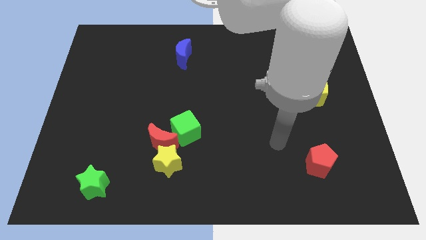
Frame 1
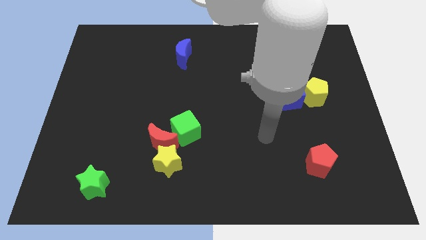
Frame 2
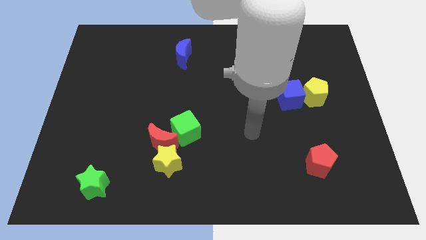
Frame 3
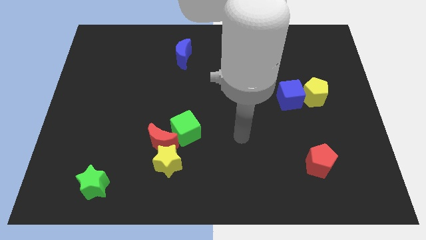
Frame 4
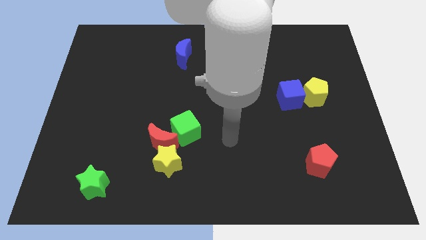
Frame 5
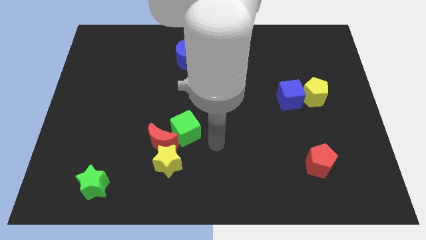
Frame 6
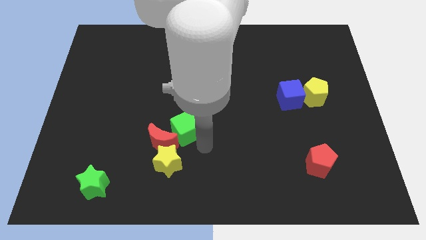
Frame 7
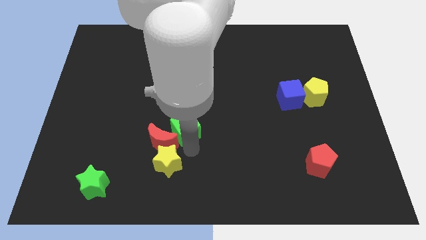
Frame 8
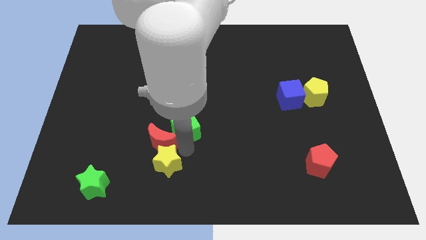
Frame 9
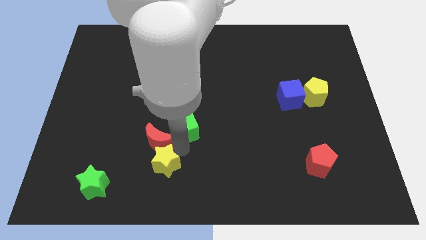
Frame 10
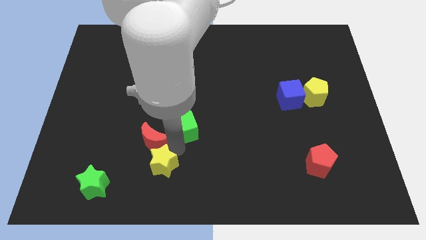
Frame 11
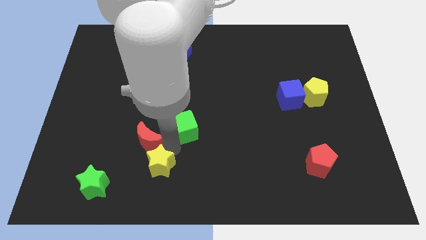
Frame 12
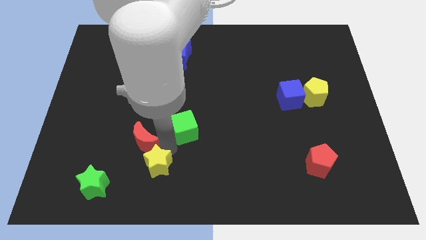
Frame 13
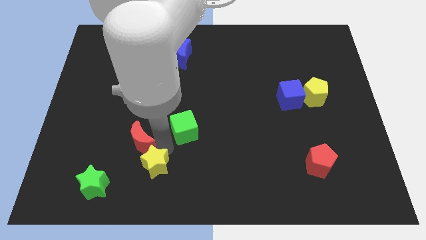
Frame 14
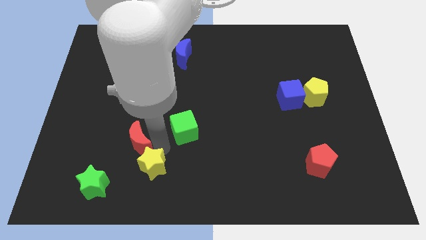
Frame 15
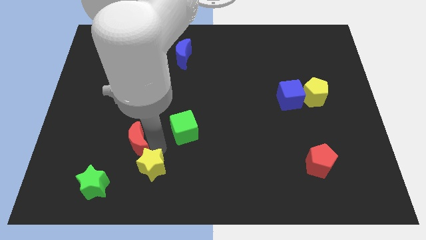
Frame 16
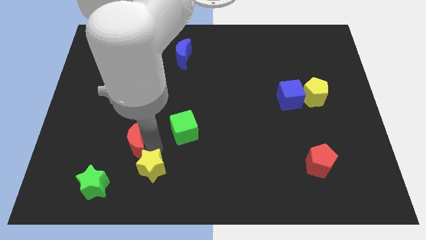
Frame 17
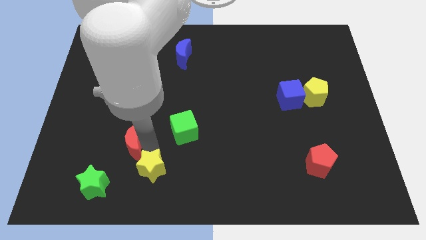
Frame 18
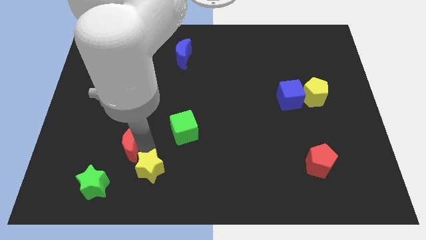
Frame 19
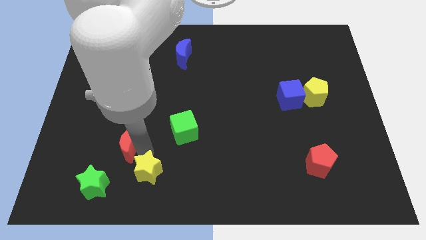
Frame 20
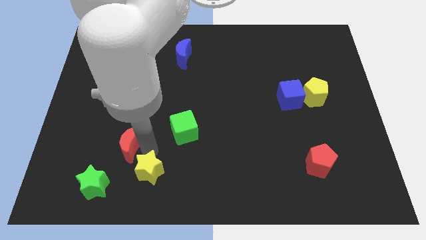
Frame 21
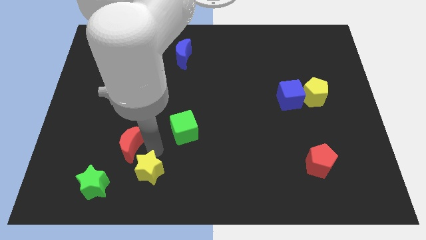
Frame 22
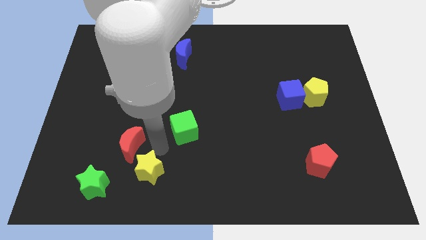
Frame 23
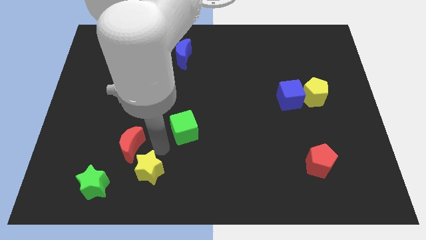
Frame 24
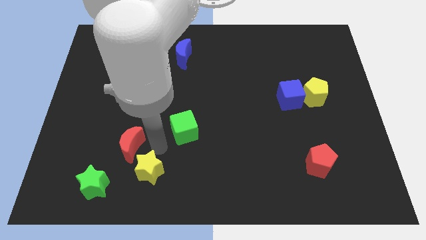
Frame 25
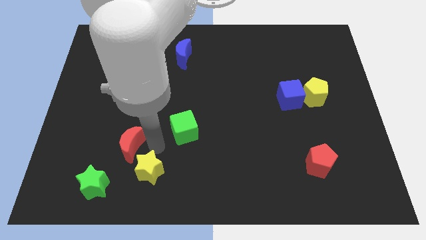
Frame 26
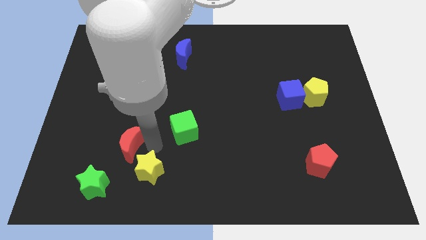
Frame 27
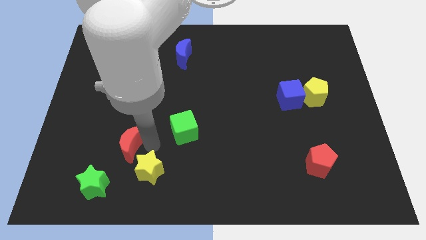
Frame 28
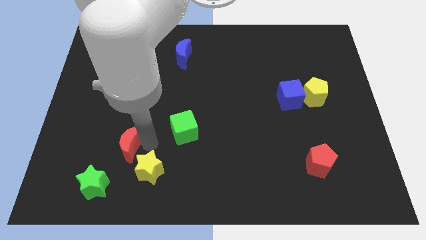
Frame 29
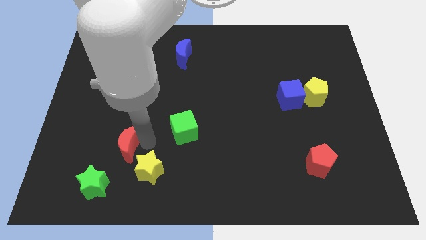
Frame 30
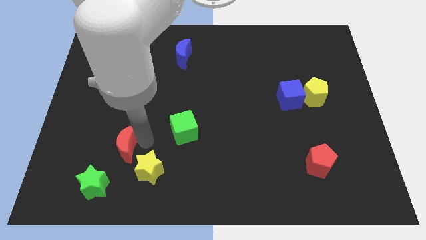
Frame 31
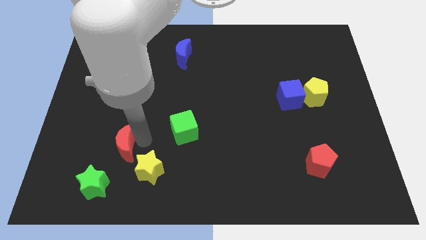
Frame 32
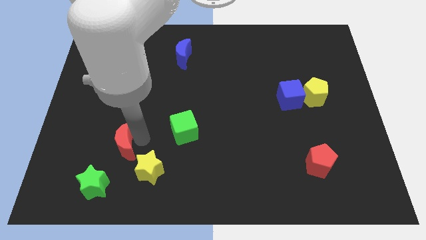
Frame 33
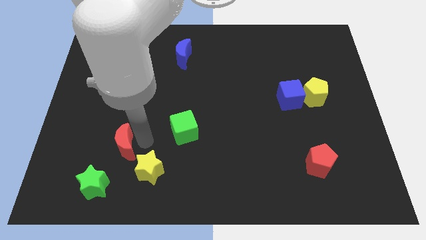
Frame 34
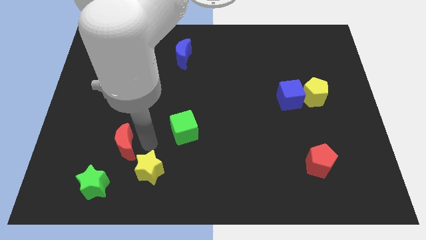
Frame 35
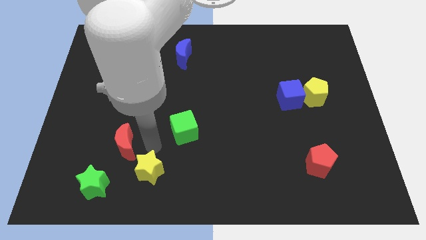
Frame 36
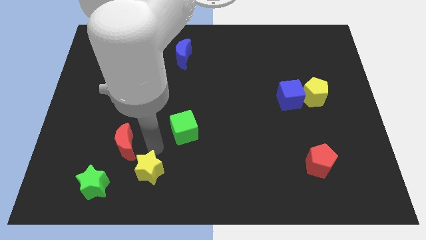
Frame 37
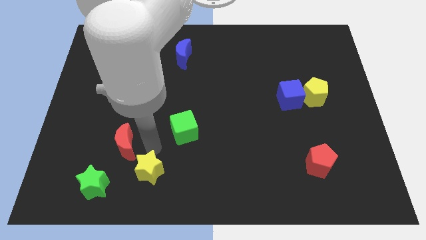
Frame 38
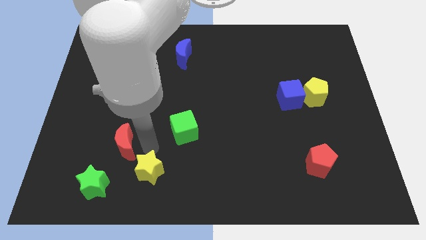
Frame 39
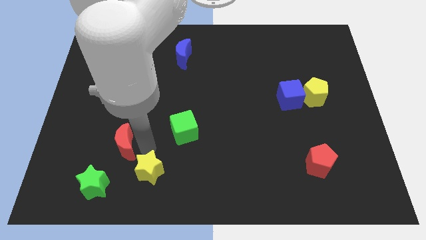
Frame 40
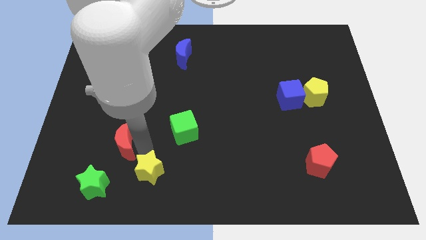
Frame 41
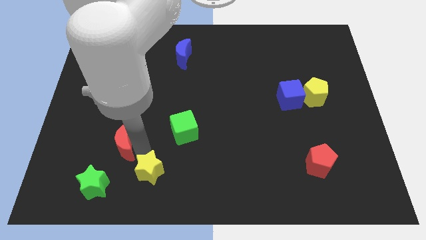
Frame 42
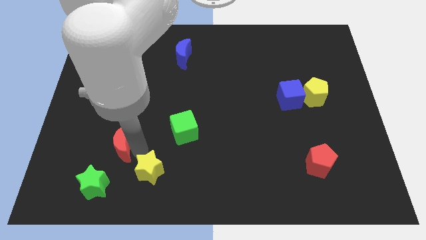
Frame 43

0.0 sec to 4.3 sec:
separate the red moon from the yellow star and green cube

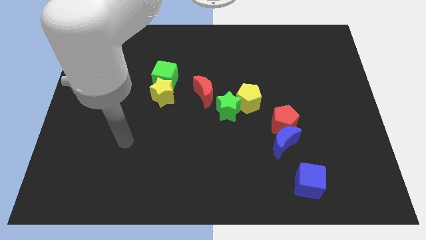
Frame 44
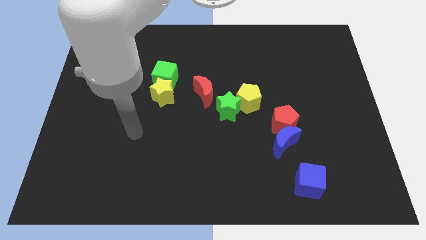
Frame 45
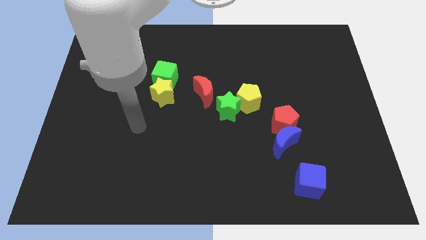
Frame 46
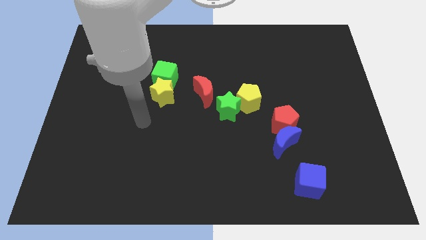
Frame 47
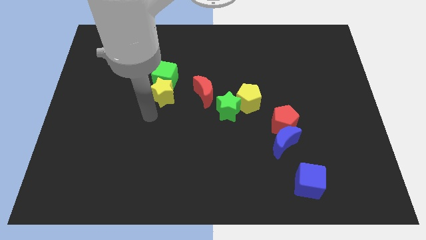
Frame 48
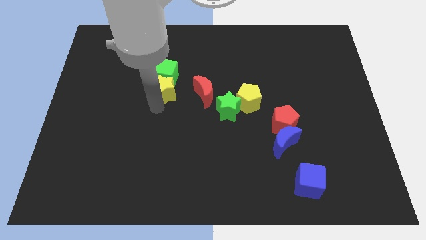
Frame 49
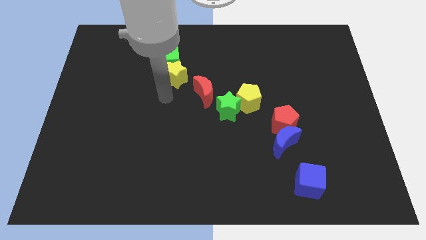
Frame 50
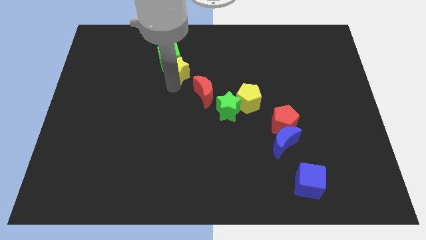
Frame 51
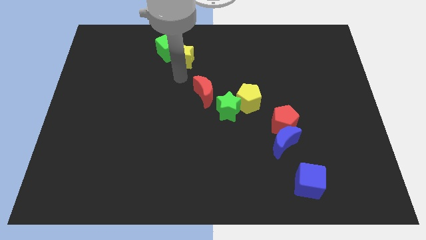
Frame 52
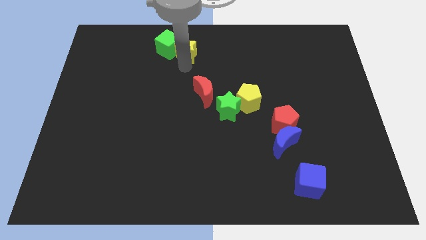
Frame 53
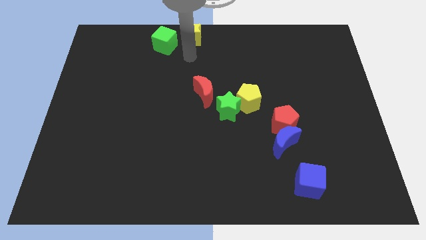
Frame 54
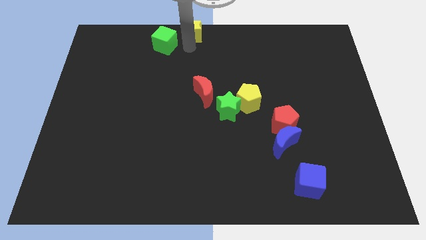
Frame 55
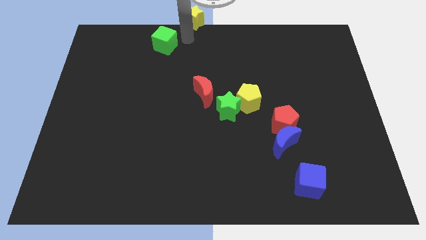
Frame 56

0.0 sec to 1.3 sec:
pull the green cube apart from the yellow star

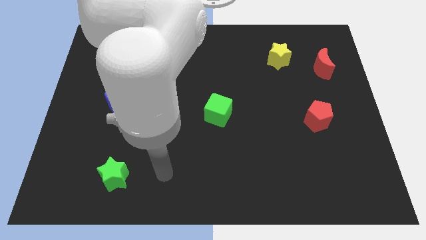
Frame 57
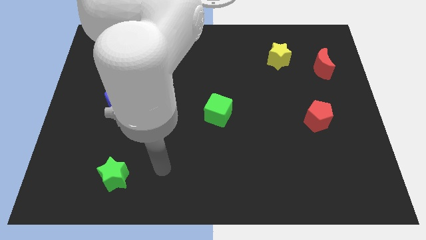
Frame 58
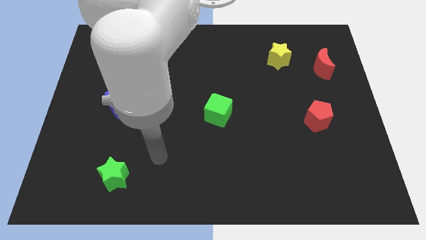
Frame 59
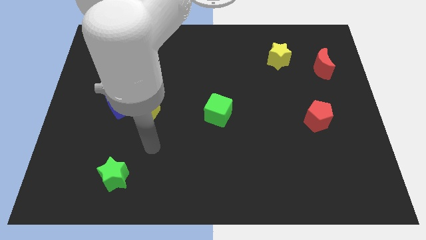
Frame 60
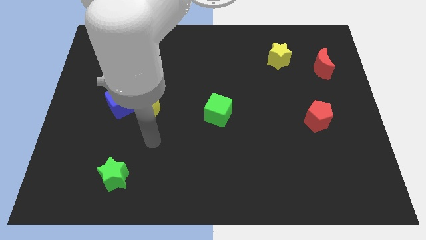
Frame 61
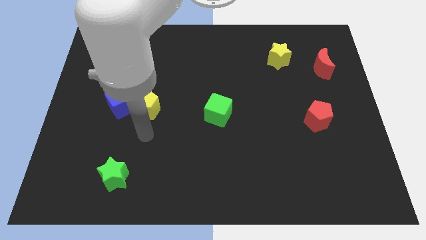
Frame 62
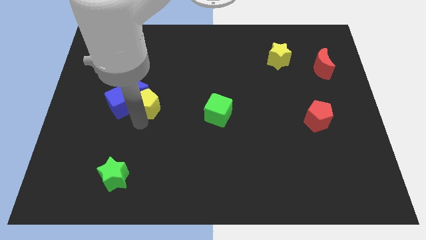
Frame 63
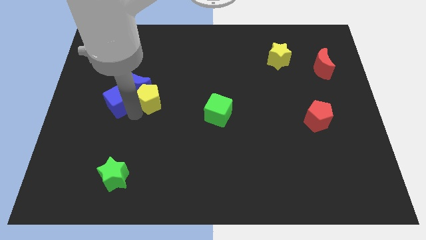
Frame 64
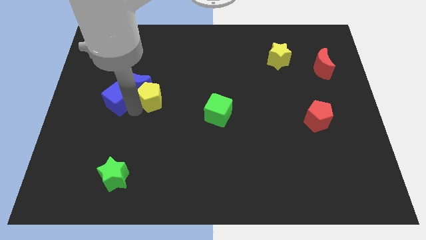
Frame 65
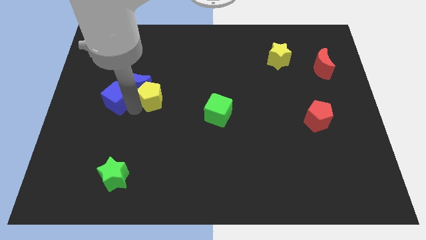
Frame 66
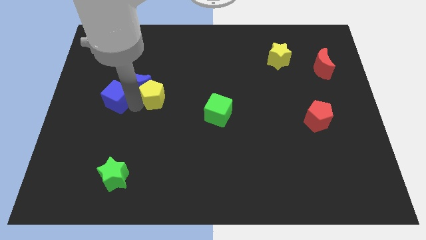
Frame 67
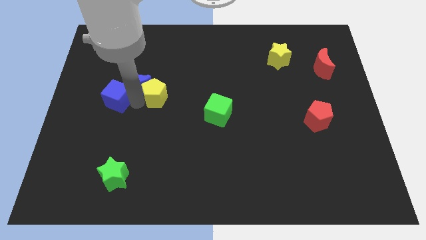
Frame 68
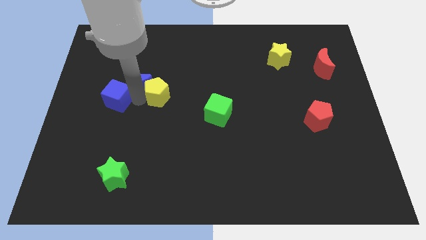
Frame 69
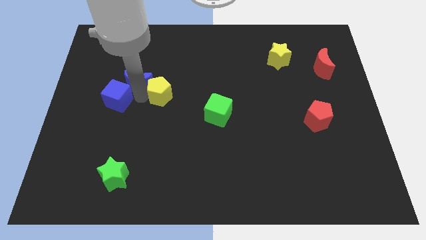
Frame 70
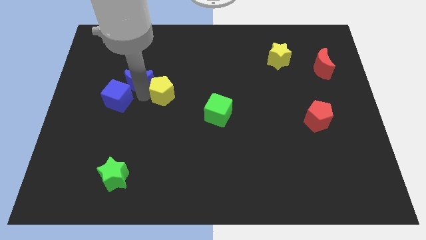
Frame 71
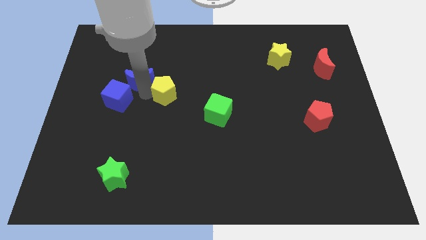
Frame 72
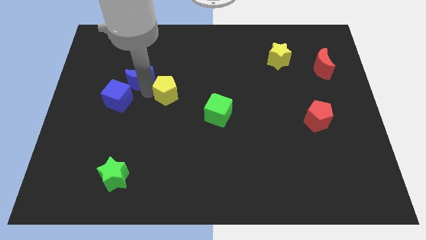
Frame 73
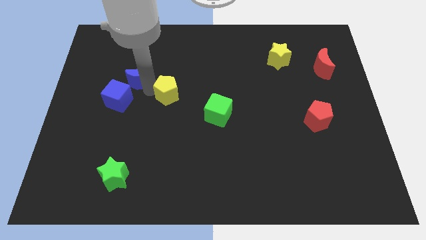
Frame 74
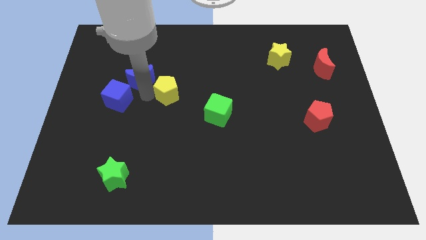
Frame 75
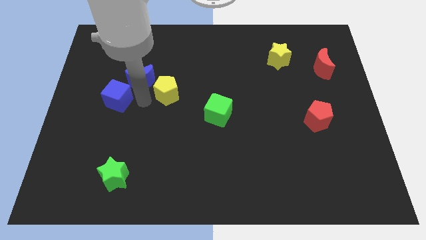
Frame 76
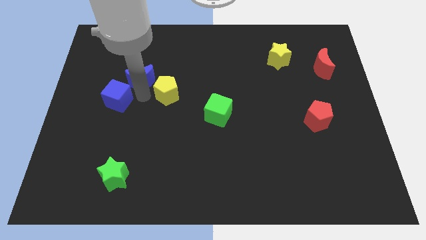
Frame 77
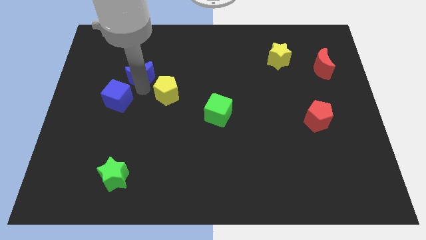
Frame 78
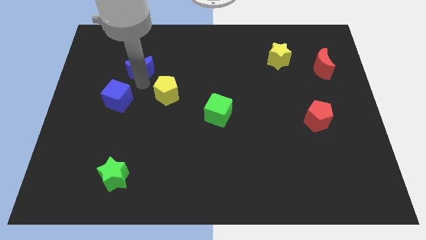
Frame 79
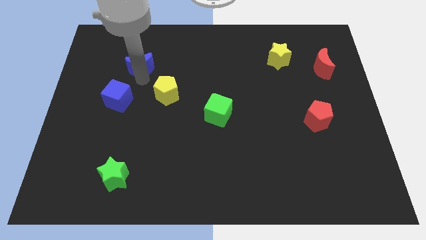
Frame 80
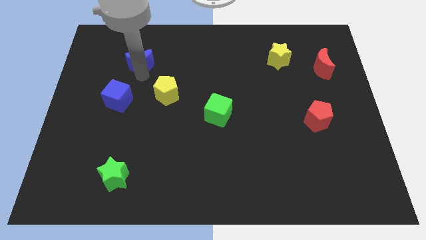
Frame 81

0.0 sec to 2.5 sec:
move the blue moon away from the blue cube and yellow pentagon

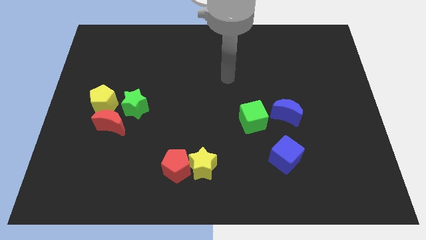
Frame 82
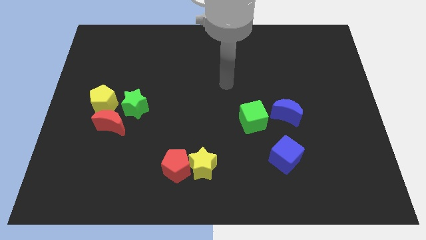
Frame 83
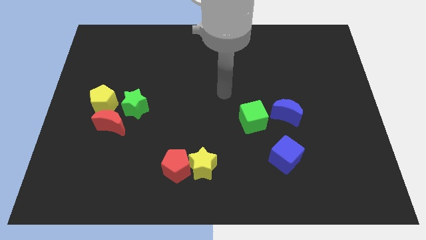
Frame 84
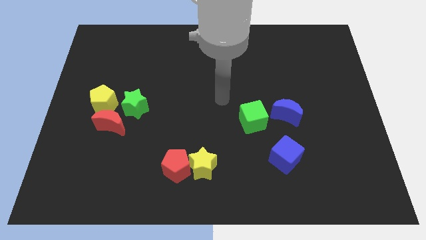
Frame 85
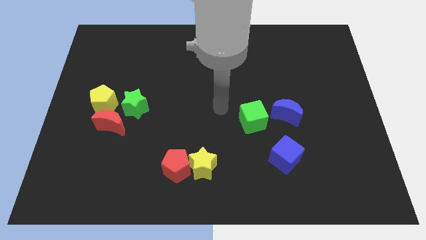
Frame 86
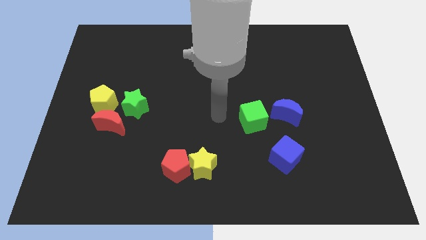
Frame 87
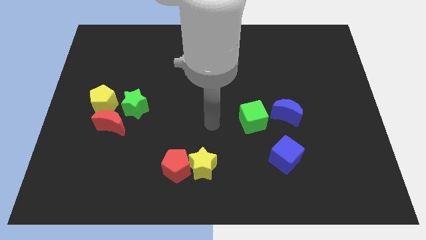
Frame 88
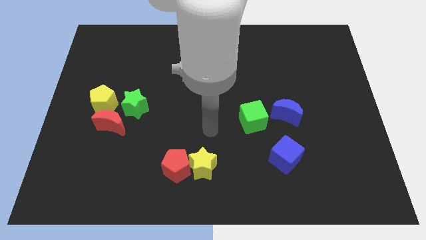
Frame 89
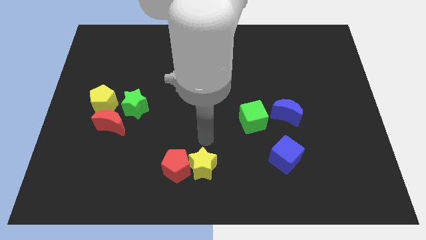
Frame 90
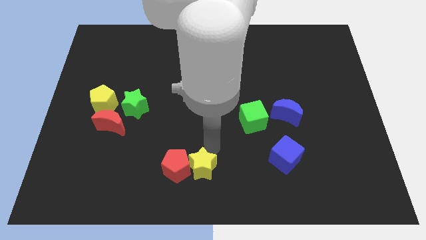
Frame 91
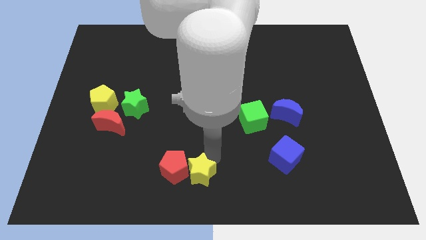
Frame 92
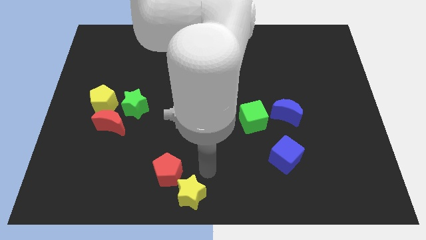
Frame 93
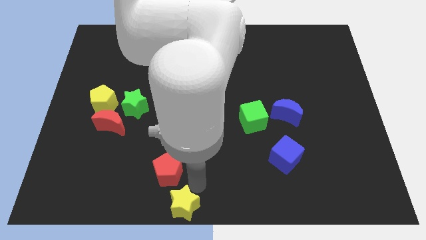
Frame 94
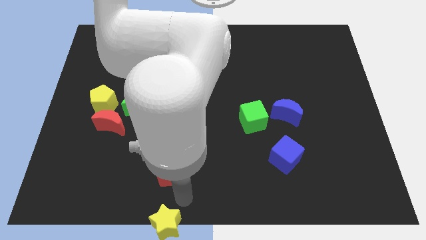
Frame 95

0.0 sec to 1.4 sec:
separate the red pentagon from the yellow star
